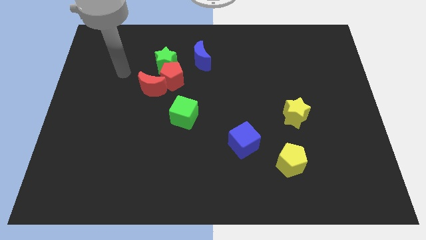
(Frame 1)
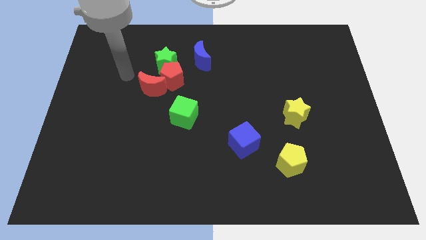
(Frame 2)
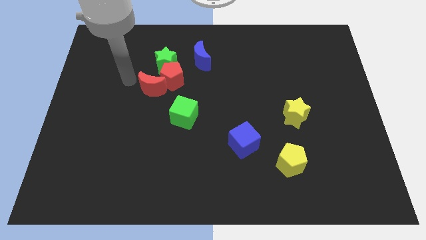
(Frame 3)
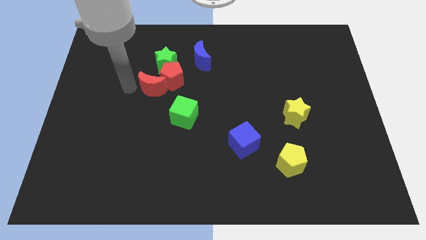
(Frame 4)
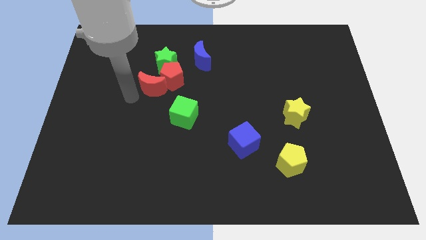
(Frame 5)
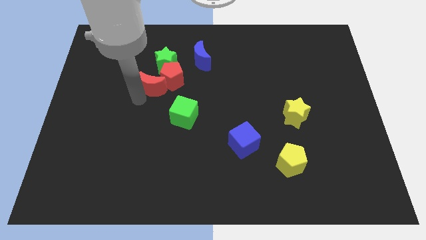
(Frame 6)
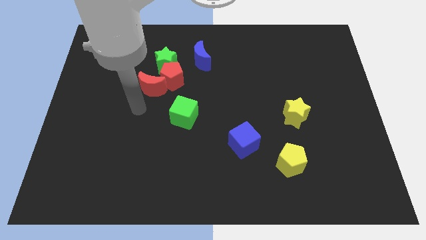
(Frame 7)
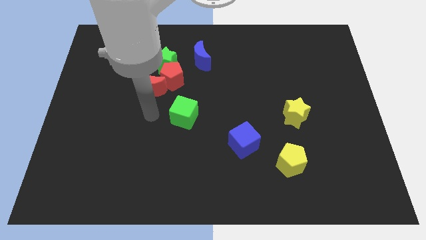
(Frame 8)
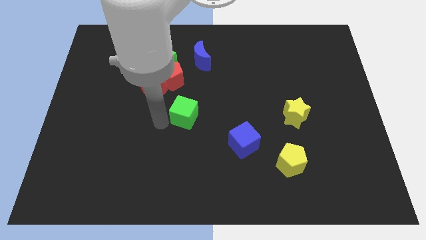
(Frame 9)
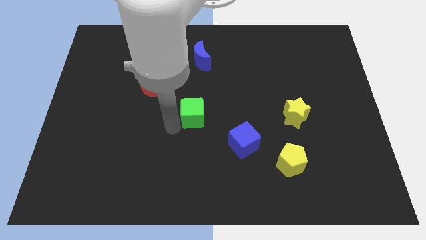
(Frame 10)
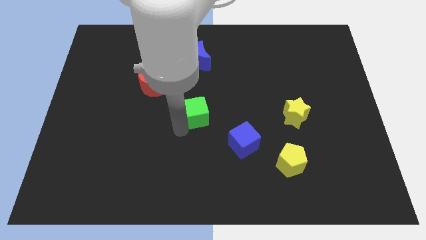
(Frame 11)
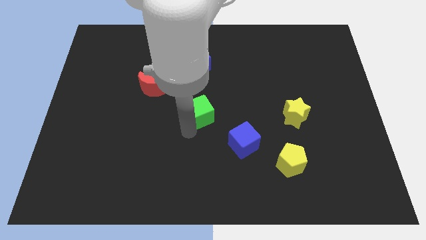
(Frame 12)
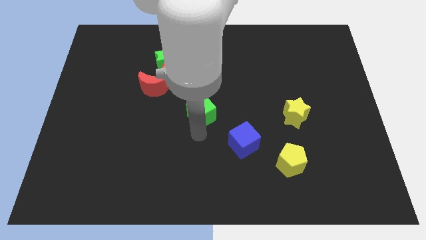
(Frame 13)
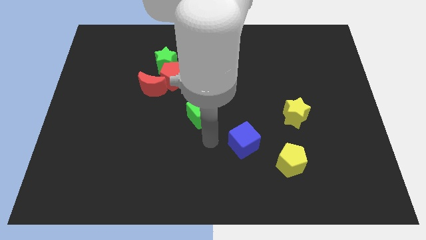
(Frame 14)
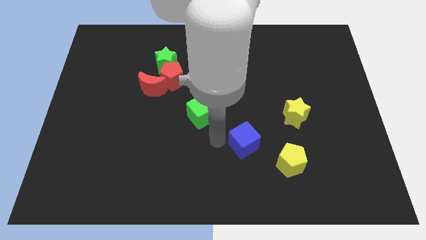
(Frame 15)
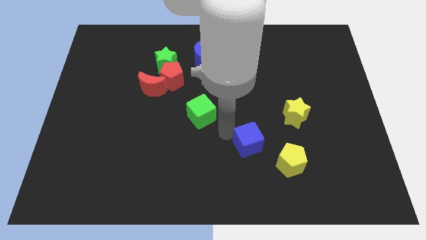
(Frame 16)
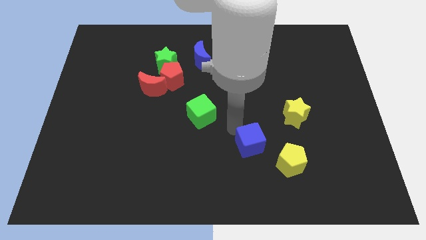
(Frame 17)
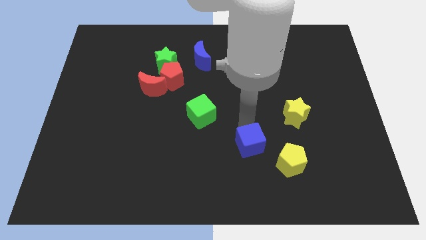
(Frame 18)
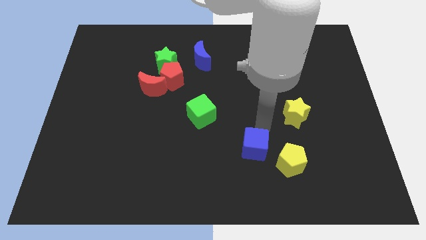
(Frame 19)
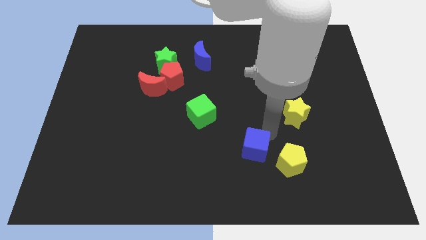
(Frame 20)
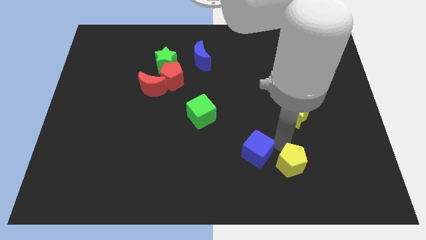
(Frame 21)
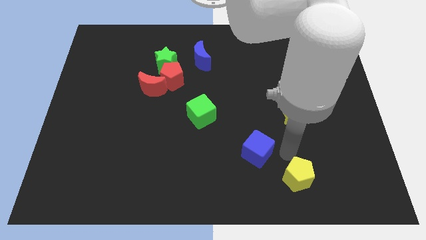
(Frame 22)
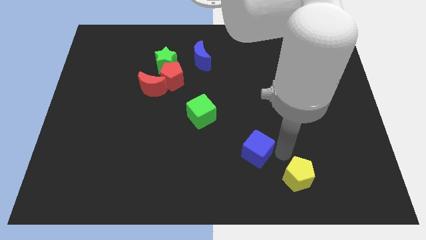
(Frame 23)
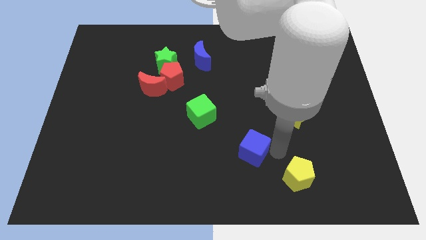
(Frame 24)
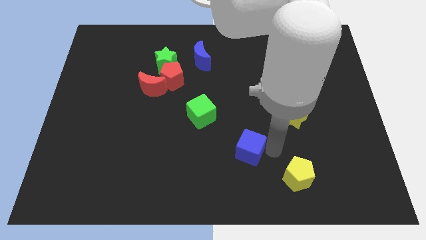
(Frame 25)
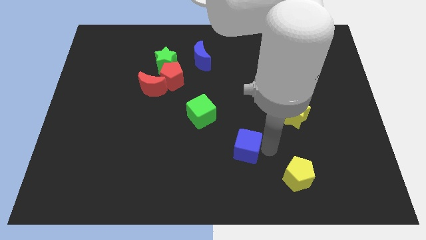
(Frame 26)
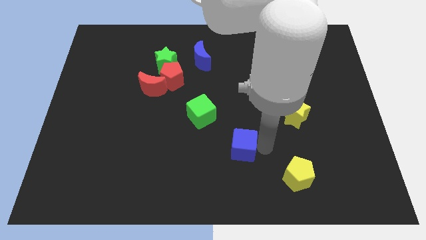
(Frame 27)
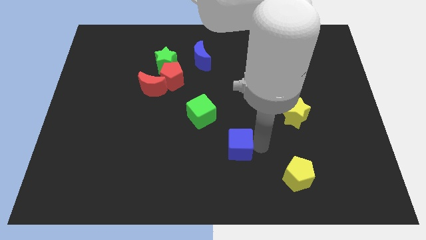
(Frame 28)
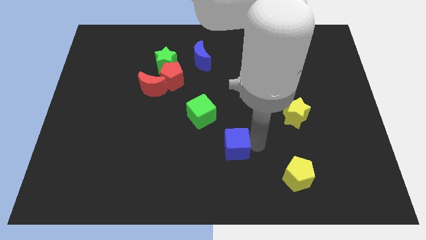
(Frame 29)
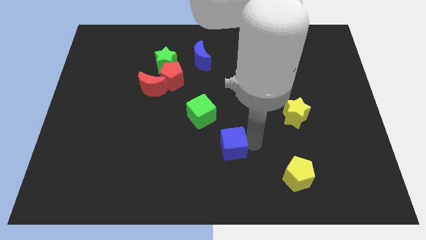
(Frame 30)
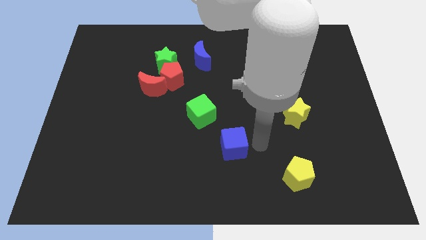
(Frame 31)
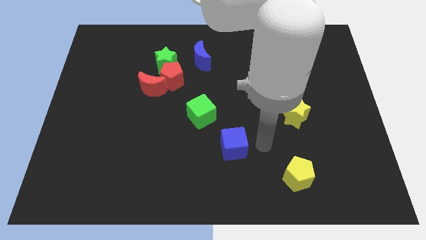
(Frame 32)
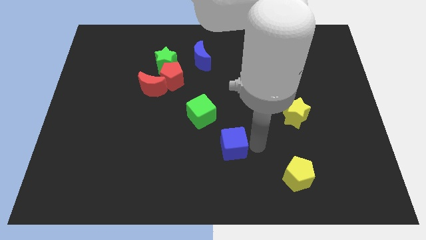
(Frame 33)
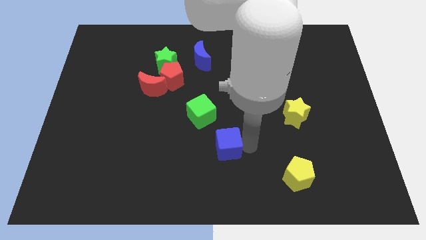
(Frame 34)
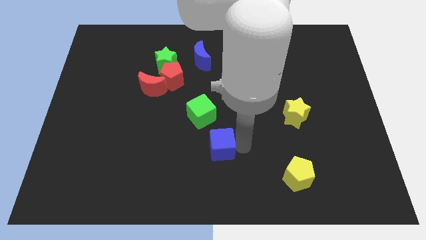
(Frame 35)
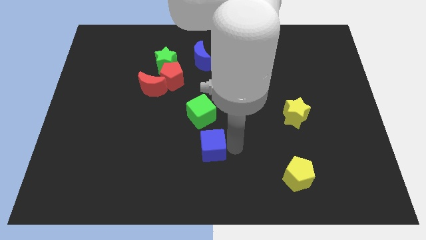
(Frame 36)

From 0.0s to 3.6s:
push the blue cube left a little bit

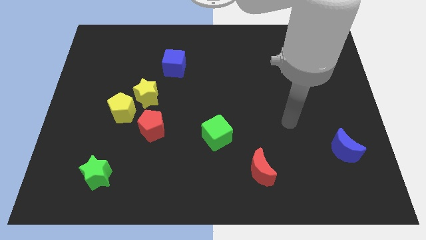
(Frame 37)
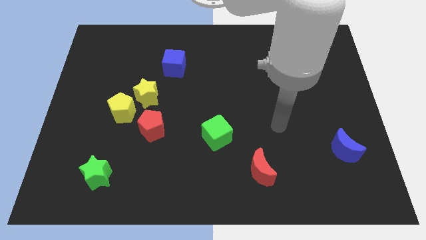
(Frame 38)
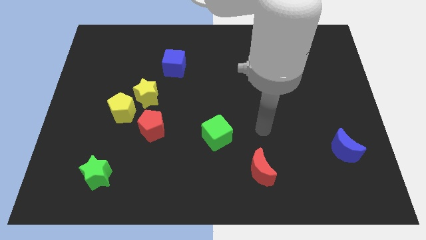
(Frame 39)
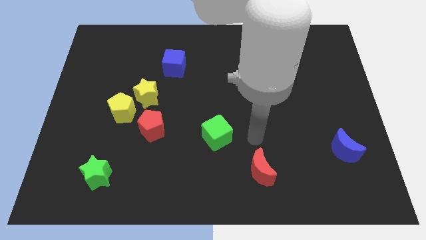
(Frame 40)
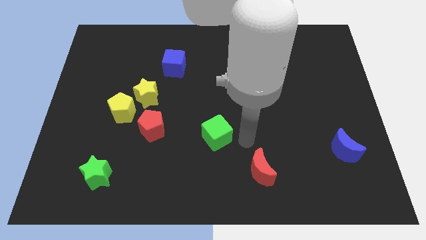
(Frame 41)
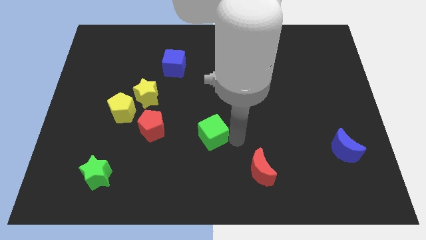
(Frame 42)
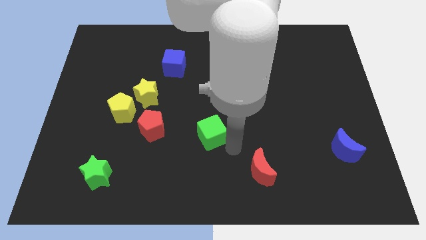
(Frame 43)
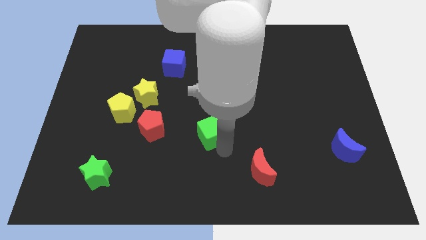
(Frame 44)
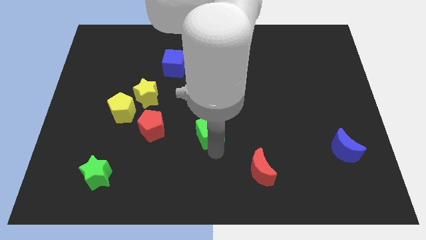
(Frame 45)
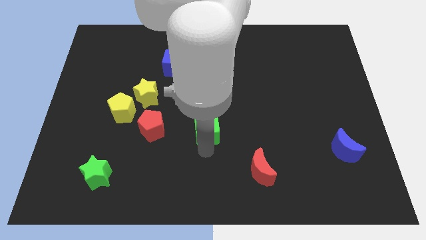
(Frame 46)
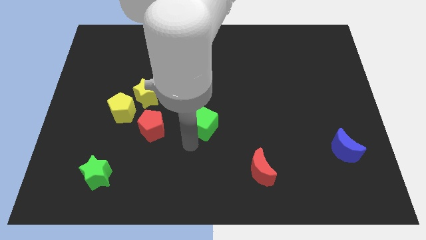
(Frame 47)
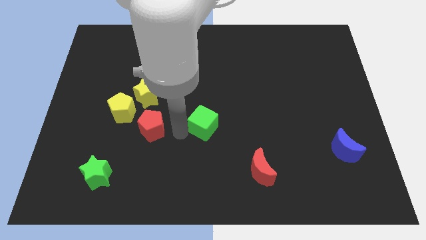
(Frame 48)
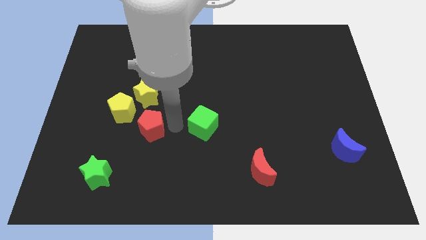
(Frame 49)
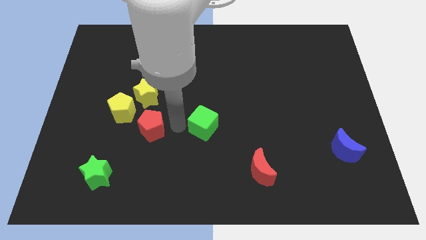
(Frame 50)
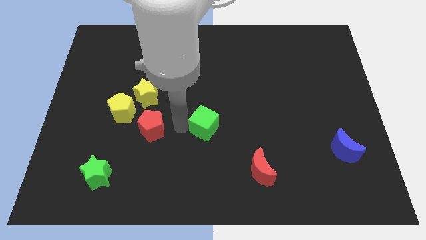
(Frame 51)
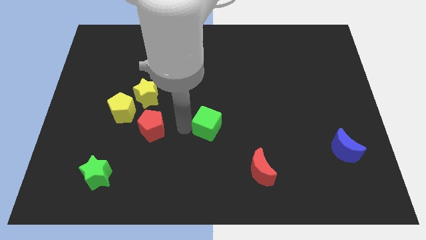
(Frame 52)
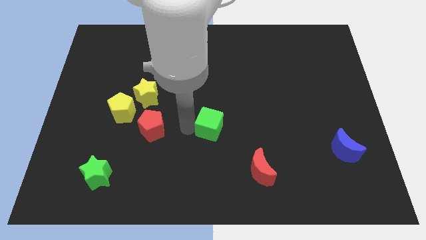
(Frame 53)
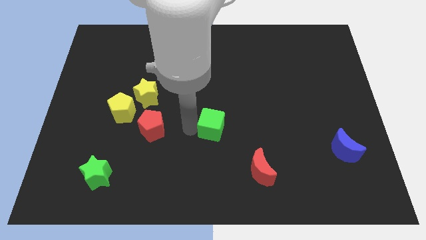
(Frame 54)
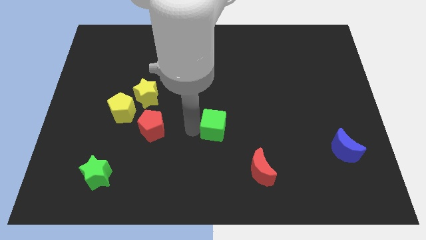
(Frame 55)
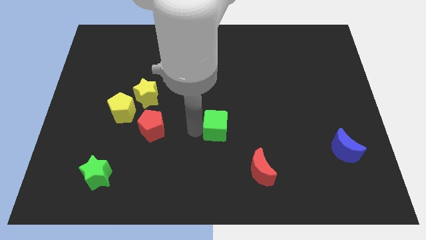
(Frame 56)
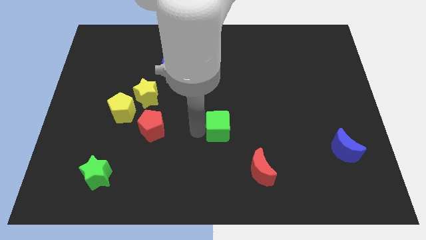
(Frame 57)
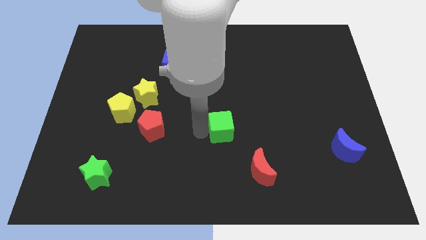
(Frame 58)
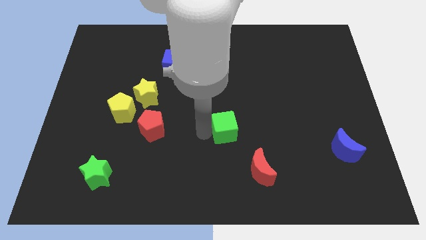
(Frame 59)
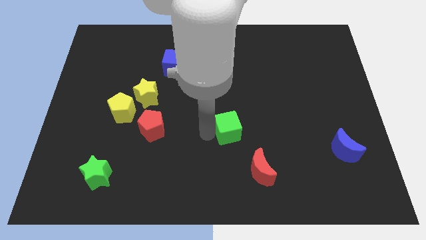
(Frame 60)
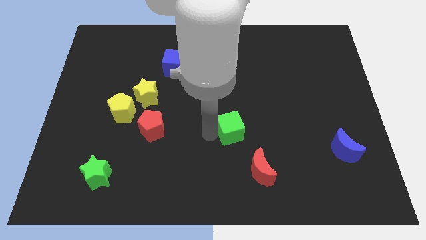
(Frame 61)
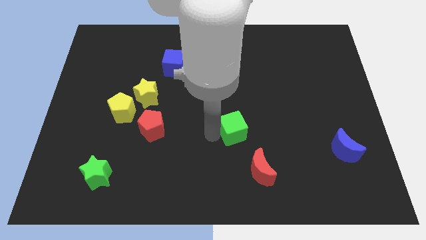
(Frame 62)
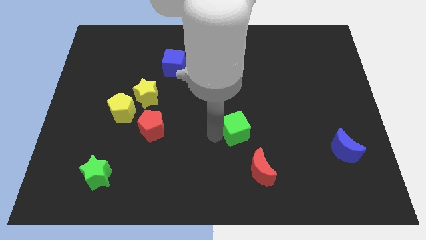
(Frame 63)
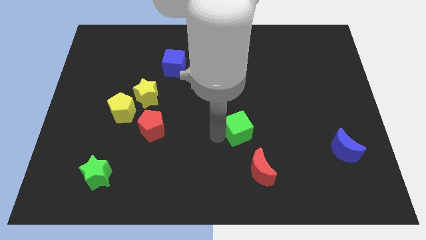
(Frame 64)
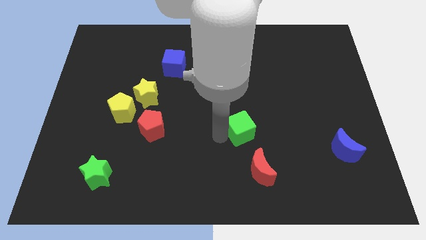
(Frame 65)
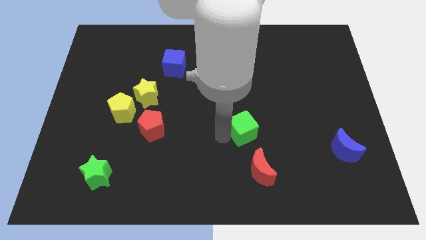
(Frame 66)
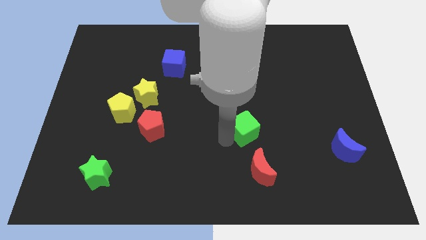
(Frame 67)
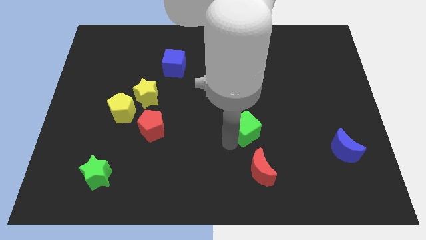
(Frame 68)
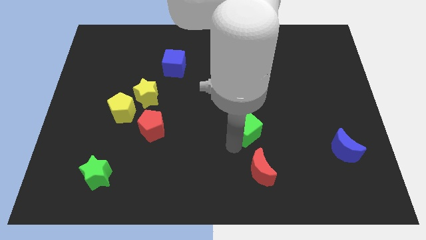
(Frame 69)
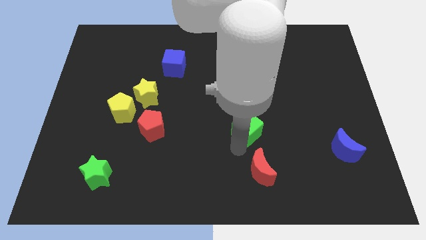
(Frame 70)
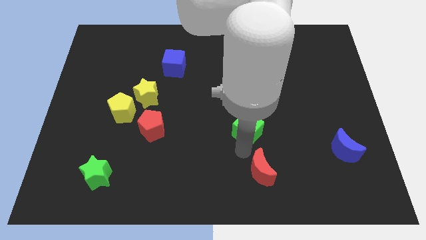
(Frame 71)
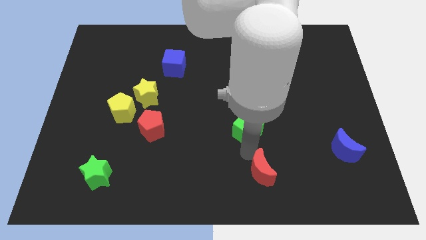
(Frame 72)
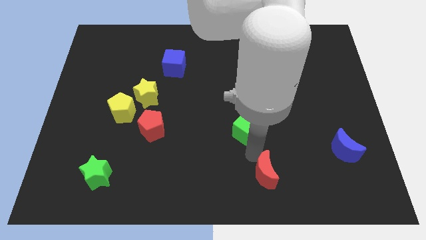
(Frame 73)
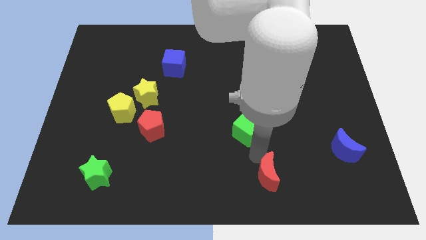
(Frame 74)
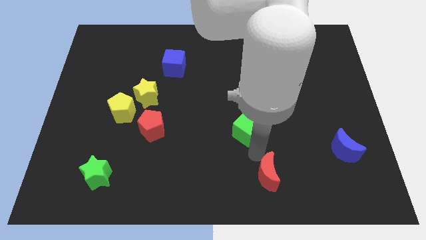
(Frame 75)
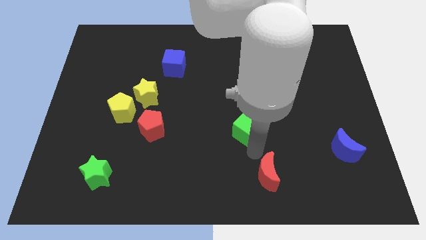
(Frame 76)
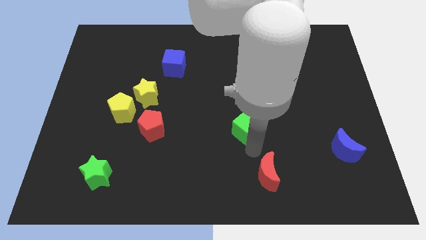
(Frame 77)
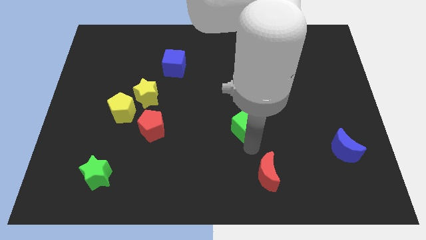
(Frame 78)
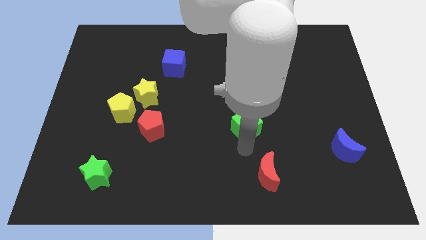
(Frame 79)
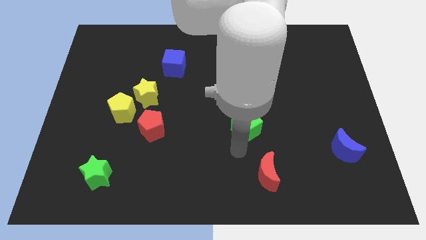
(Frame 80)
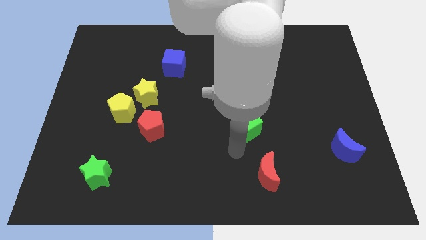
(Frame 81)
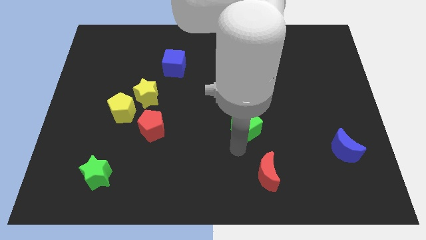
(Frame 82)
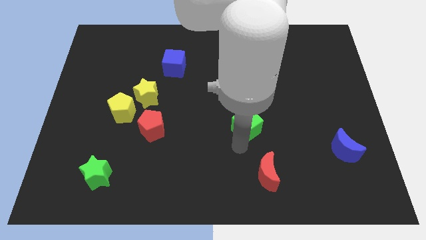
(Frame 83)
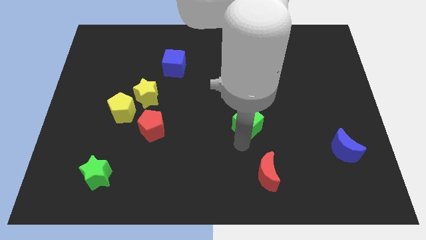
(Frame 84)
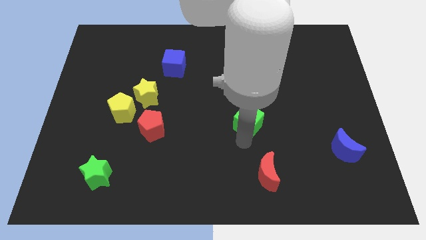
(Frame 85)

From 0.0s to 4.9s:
slightly push the green cube up and right diagonally
